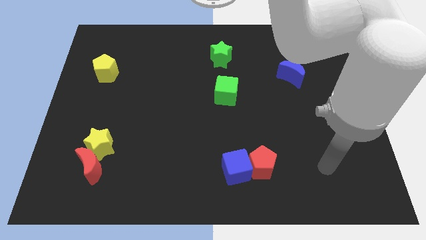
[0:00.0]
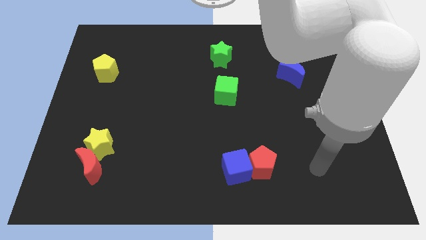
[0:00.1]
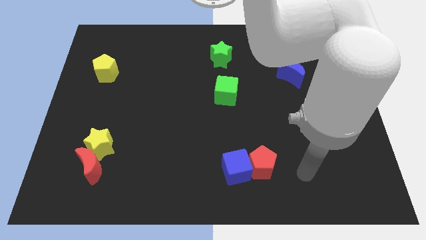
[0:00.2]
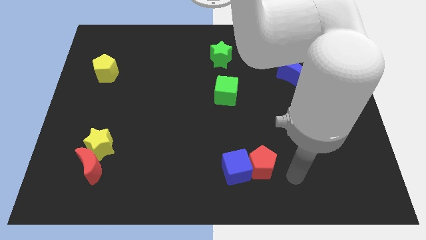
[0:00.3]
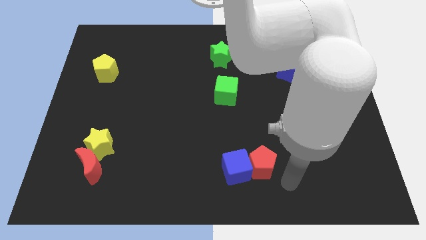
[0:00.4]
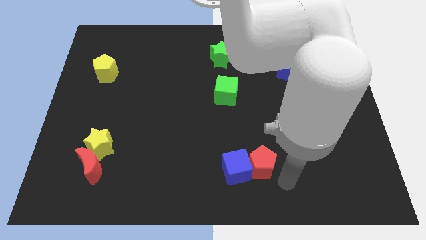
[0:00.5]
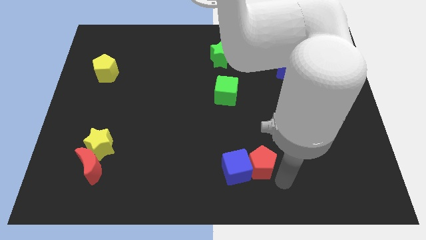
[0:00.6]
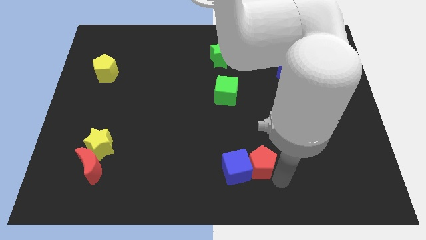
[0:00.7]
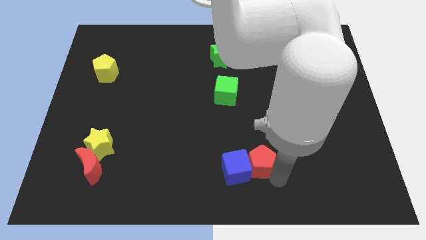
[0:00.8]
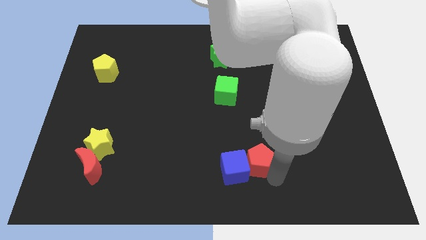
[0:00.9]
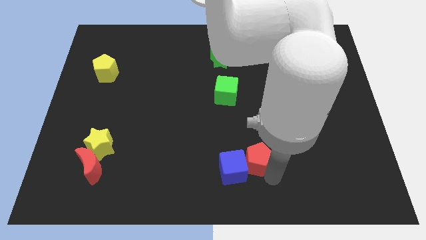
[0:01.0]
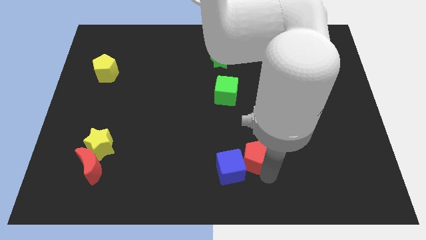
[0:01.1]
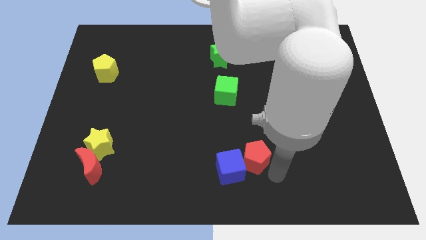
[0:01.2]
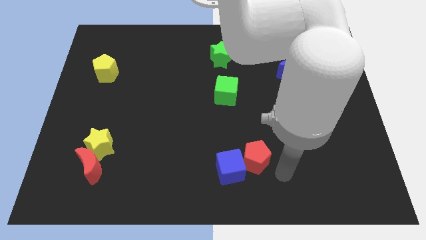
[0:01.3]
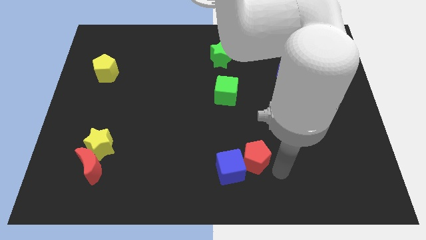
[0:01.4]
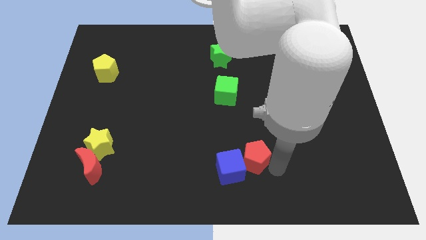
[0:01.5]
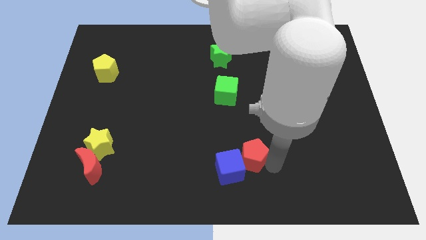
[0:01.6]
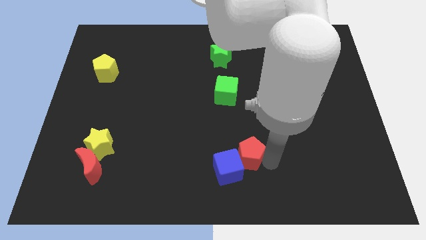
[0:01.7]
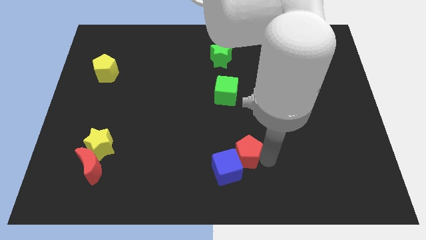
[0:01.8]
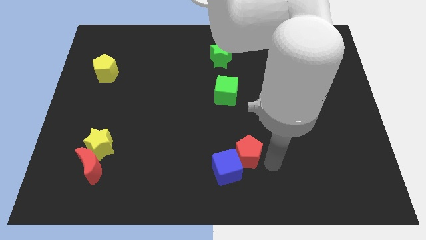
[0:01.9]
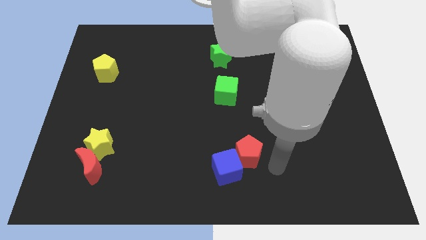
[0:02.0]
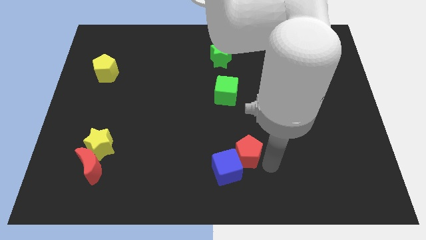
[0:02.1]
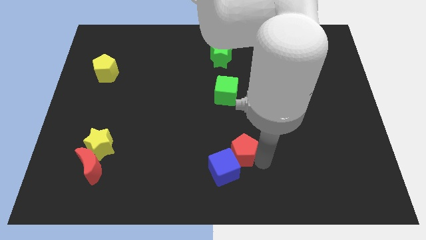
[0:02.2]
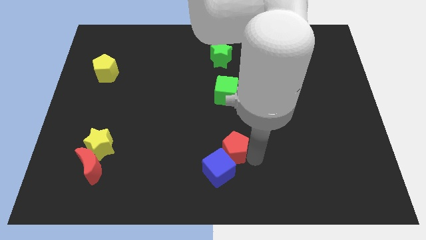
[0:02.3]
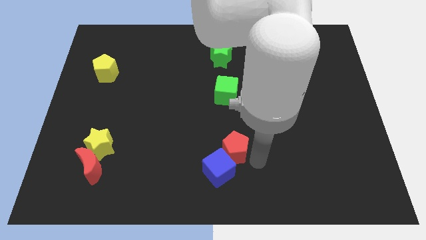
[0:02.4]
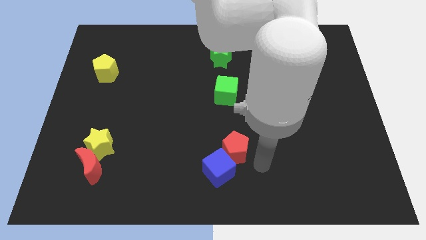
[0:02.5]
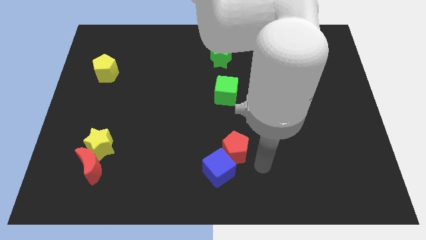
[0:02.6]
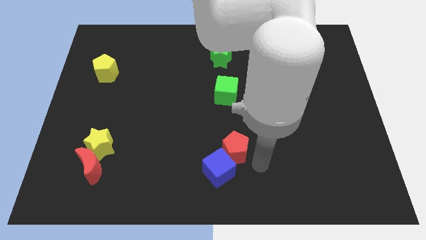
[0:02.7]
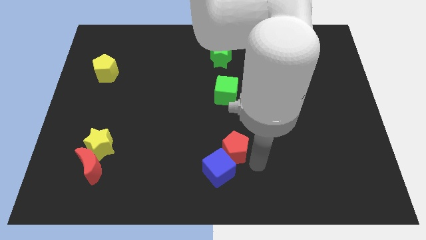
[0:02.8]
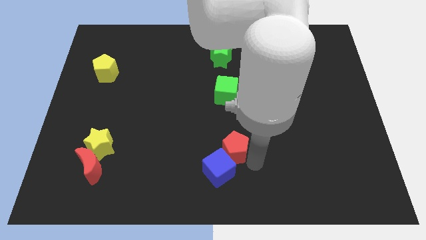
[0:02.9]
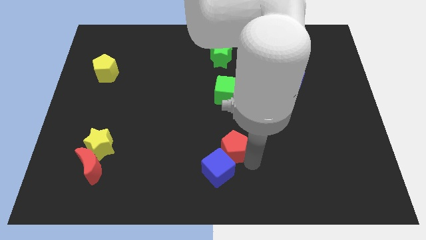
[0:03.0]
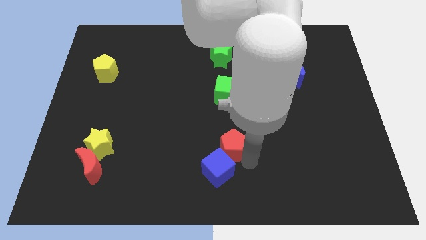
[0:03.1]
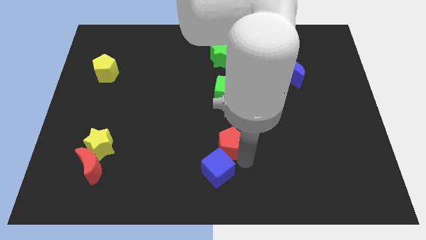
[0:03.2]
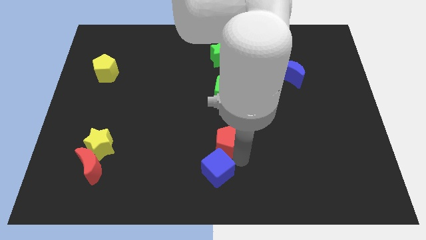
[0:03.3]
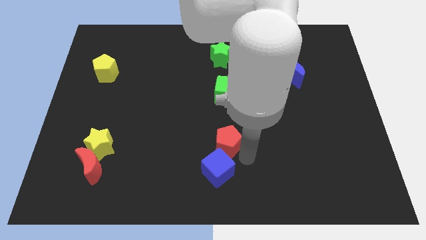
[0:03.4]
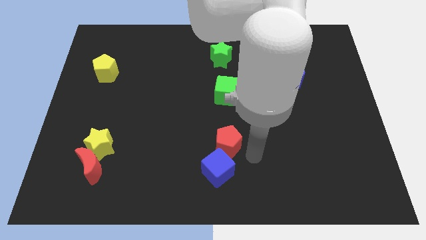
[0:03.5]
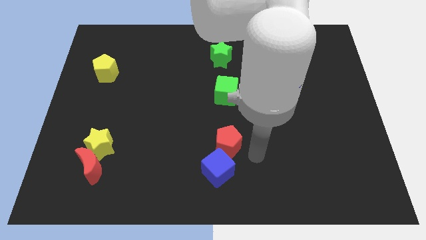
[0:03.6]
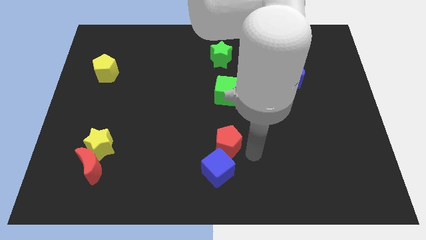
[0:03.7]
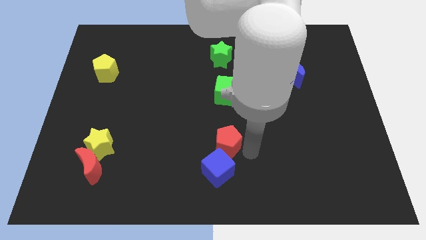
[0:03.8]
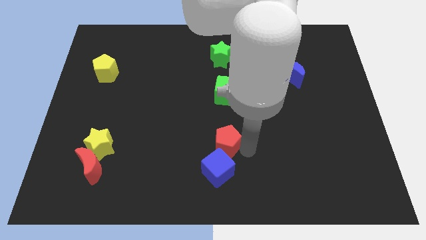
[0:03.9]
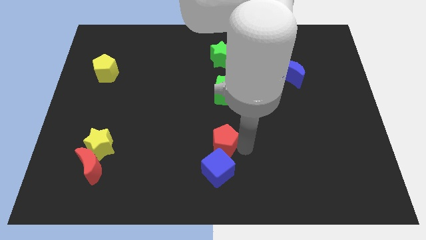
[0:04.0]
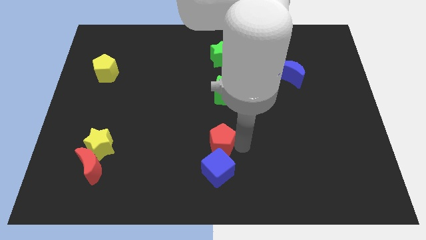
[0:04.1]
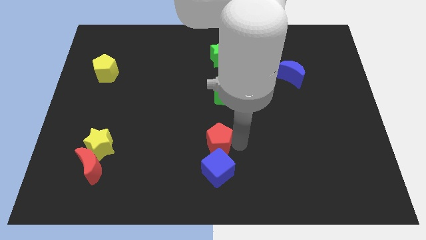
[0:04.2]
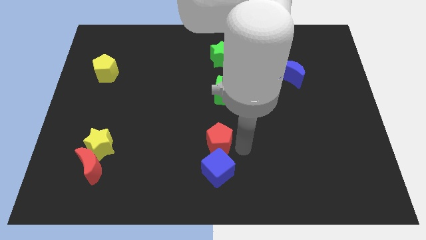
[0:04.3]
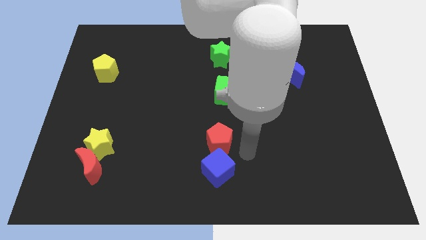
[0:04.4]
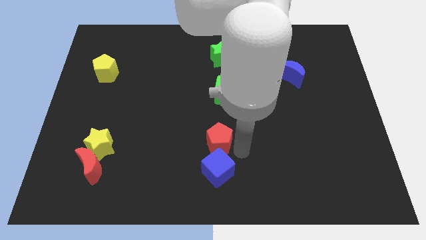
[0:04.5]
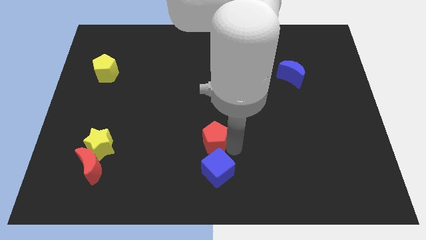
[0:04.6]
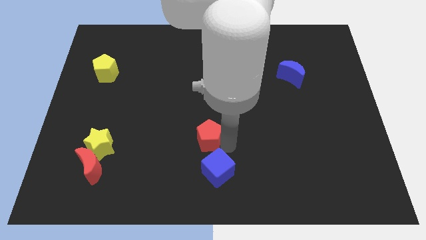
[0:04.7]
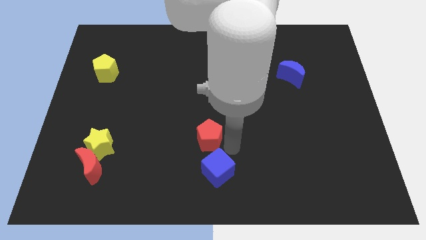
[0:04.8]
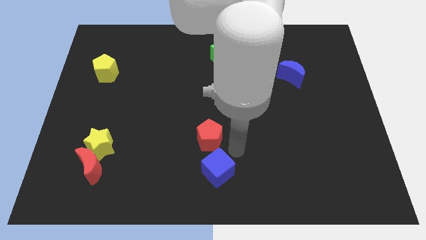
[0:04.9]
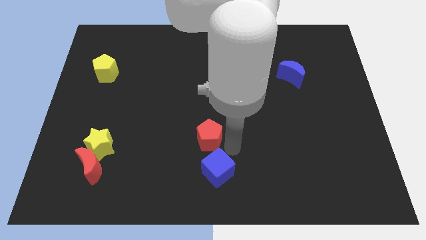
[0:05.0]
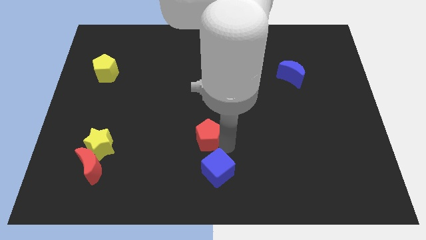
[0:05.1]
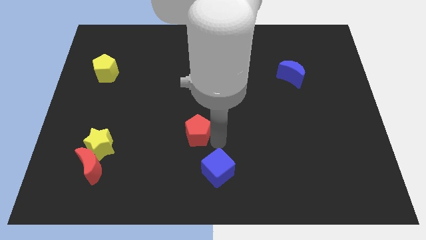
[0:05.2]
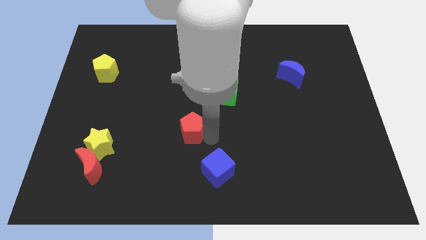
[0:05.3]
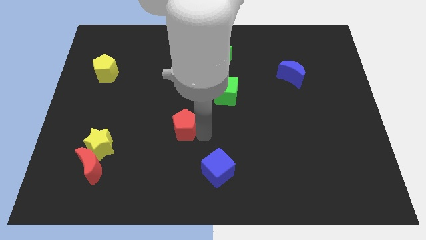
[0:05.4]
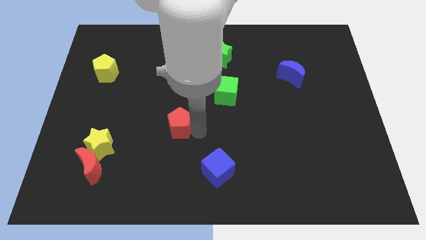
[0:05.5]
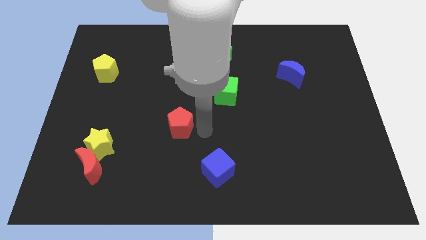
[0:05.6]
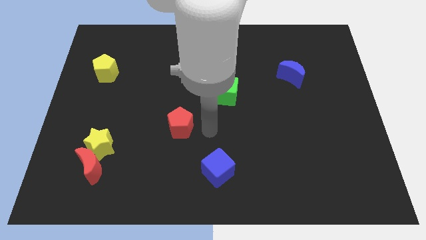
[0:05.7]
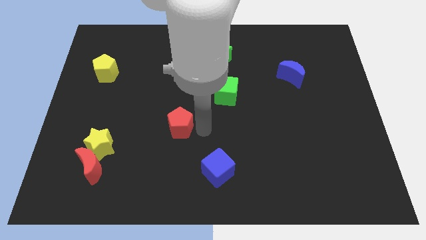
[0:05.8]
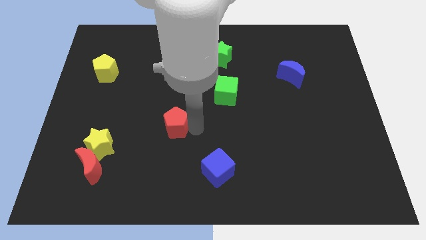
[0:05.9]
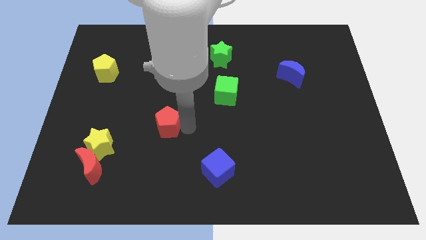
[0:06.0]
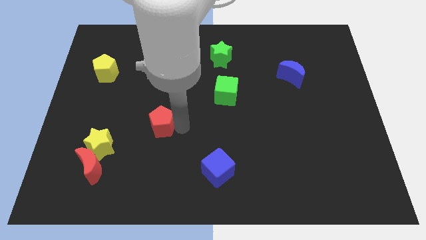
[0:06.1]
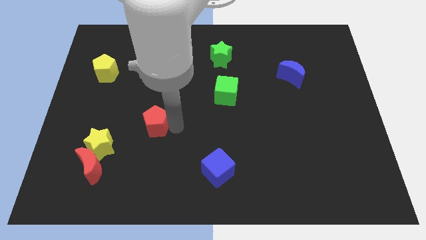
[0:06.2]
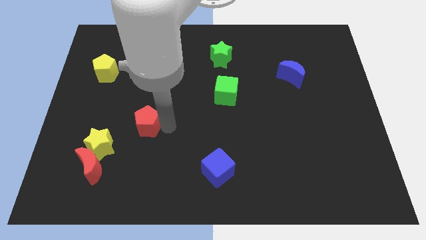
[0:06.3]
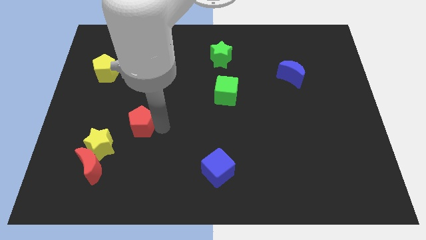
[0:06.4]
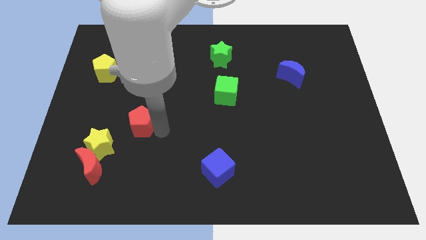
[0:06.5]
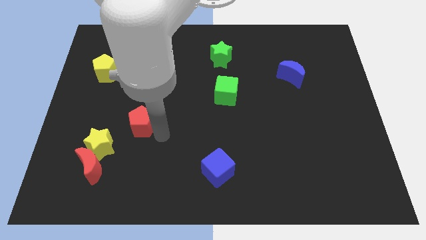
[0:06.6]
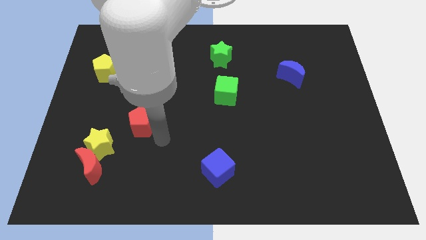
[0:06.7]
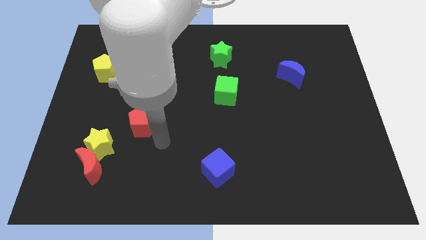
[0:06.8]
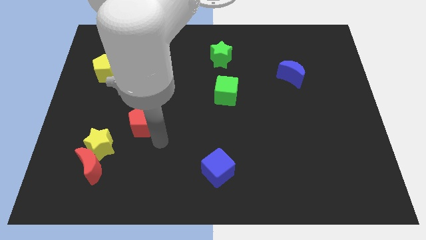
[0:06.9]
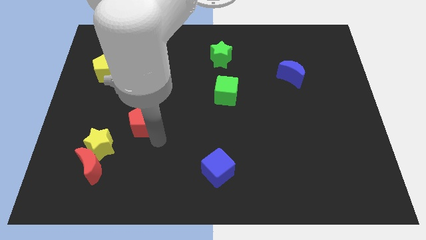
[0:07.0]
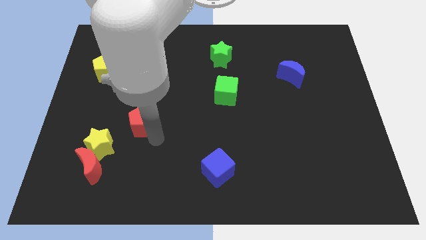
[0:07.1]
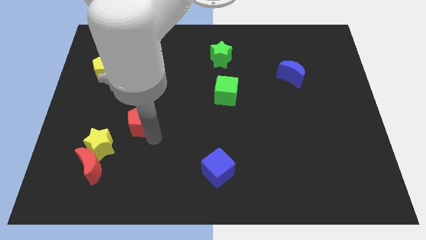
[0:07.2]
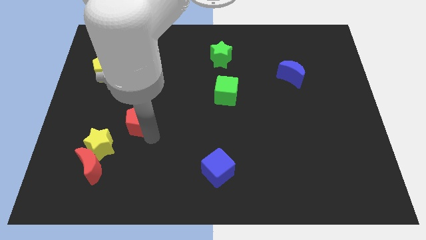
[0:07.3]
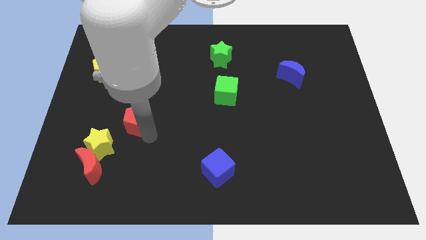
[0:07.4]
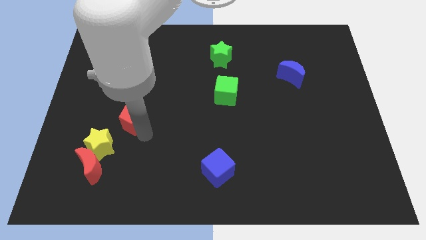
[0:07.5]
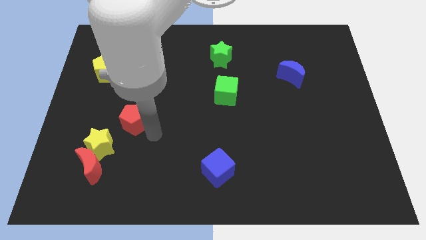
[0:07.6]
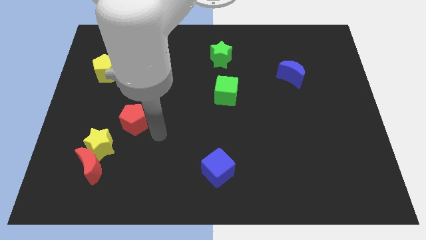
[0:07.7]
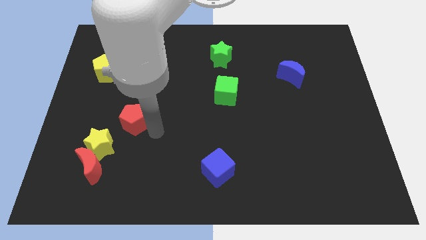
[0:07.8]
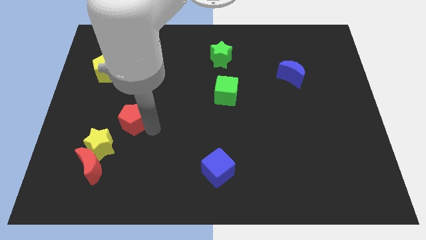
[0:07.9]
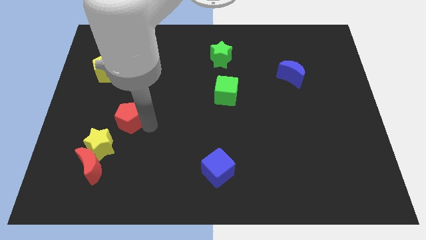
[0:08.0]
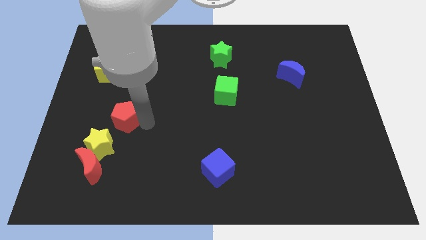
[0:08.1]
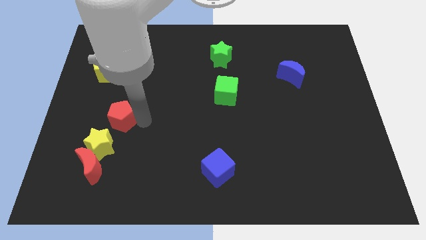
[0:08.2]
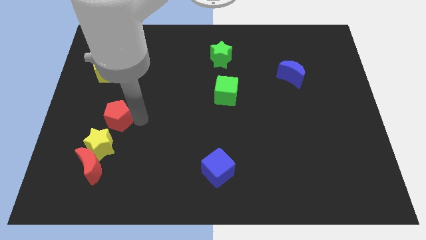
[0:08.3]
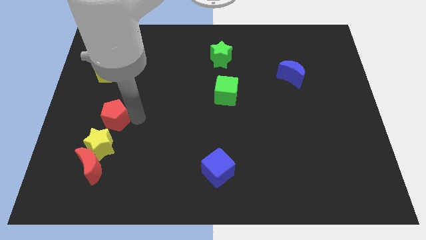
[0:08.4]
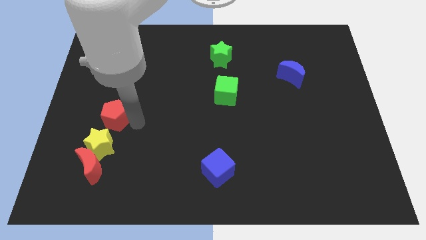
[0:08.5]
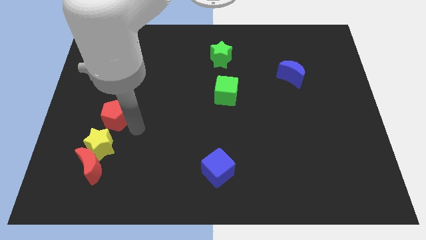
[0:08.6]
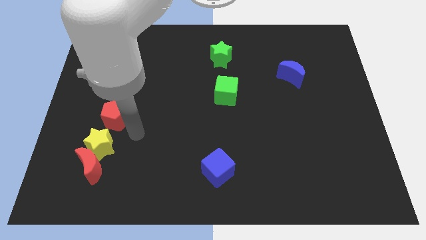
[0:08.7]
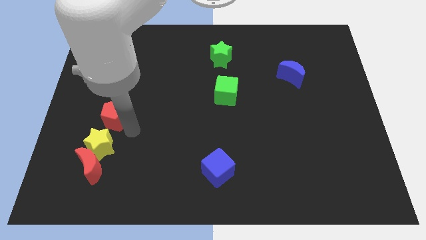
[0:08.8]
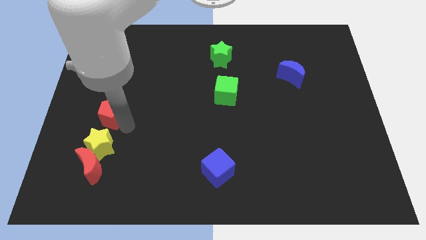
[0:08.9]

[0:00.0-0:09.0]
slide the red pentagon to the bottom of the yellow pentagon
